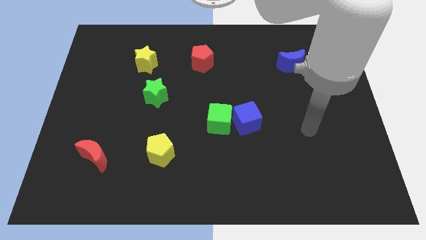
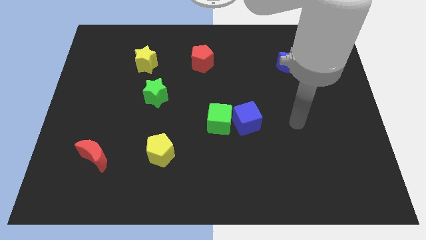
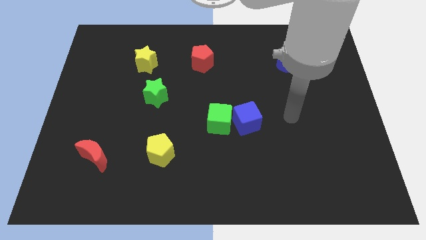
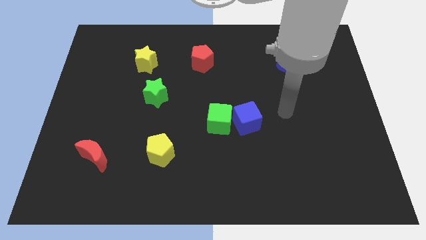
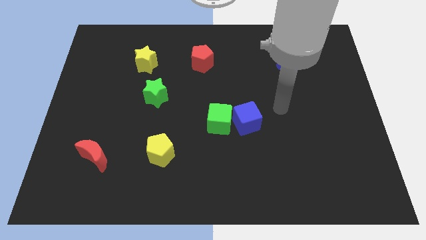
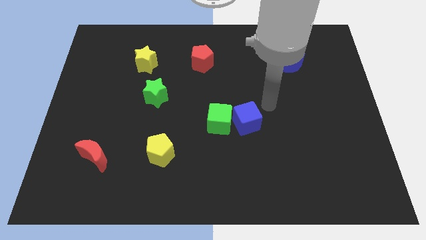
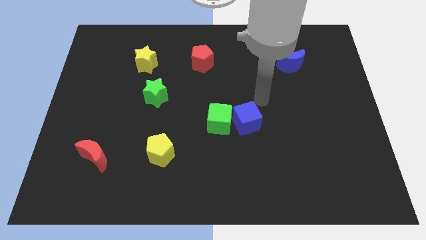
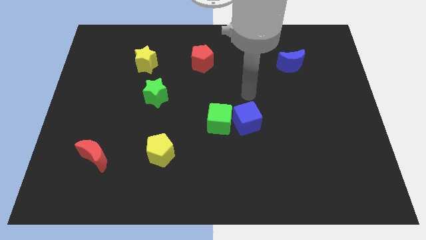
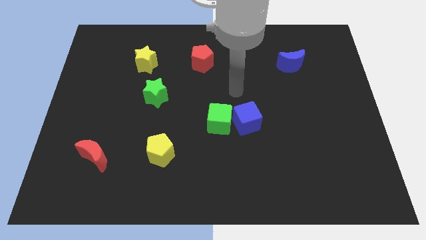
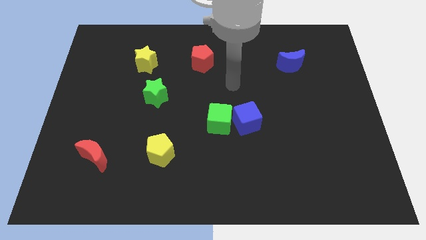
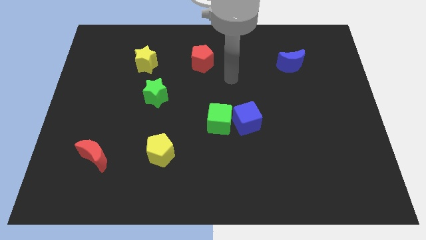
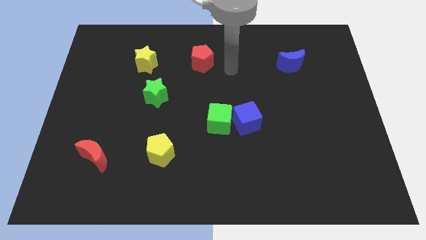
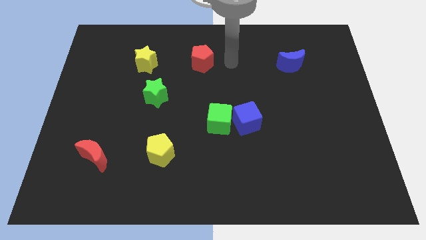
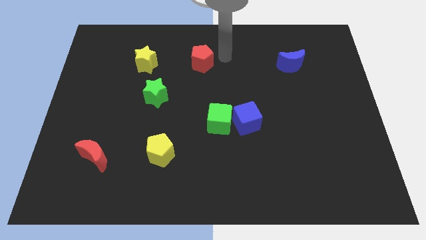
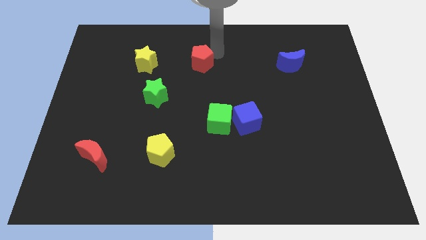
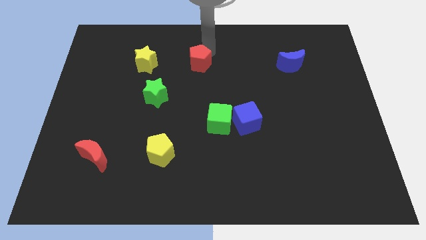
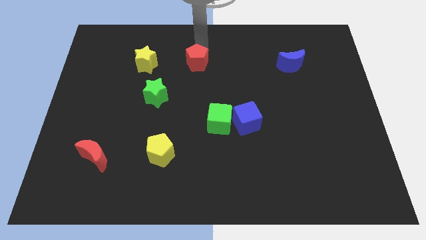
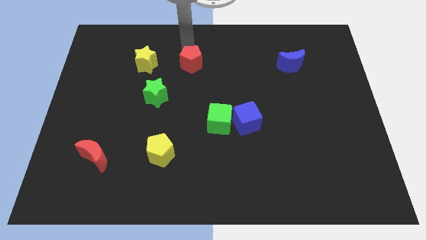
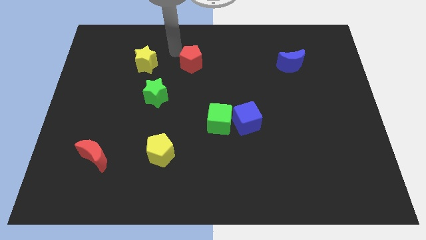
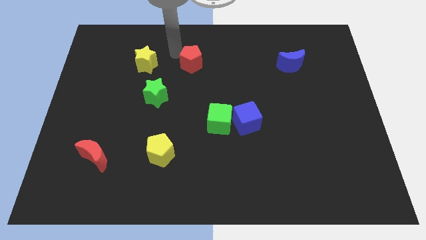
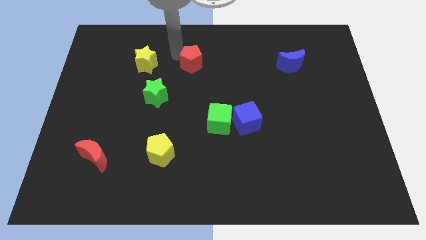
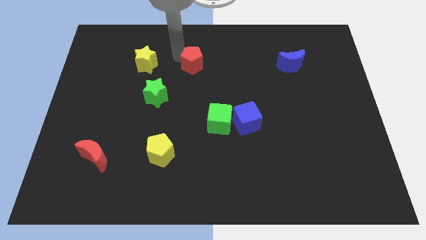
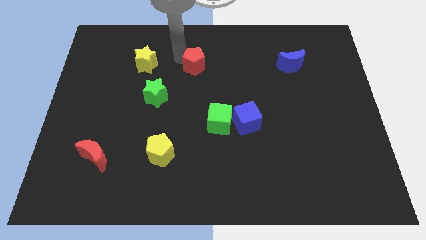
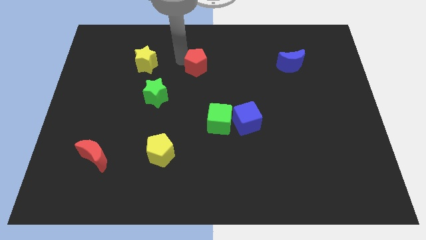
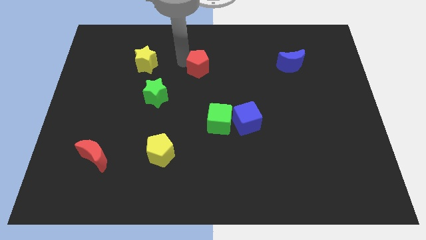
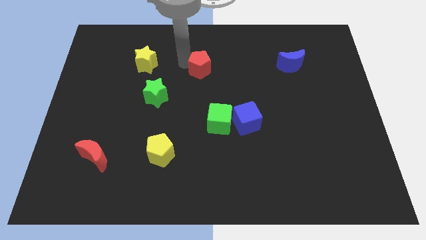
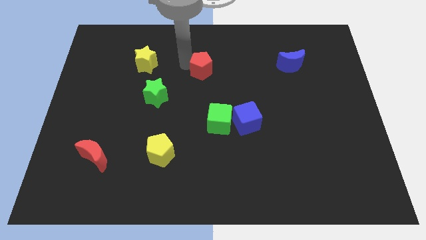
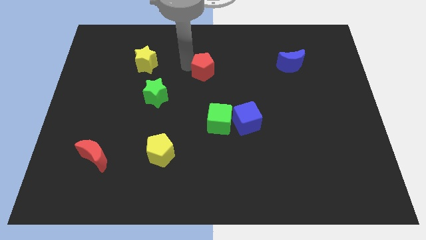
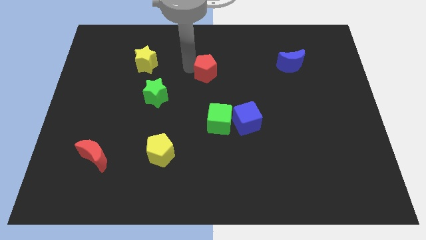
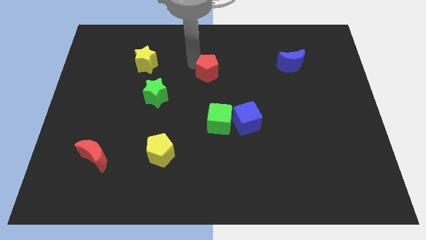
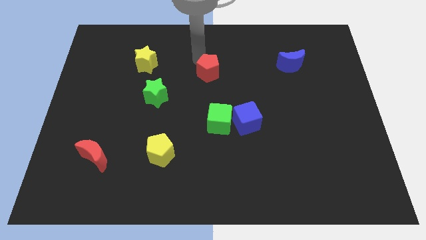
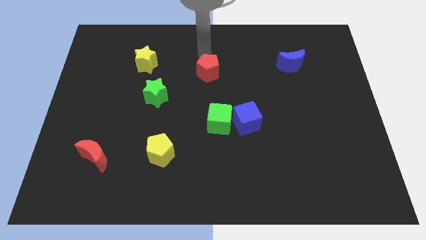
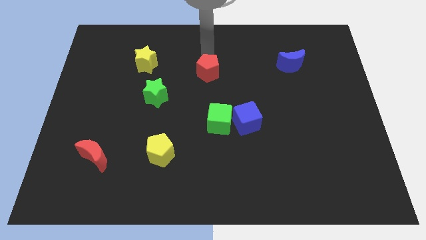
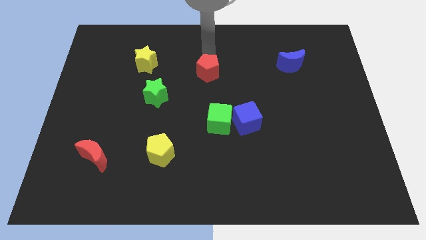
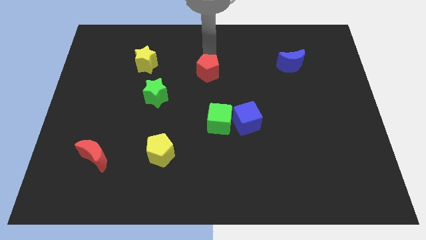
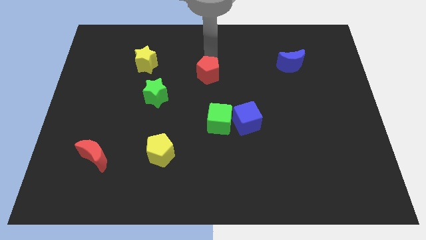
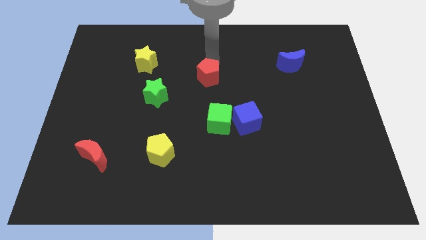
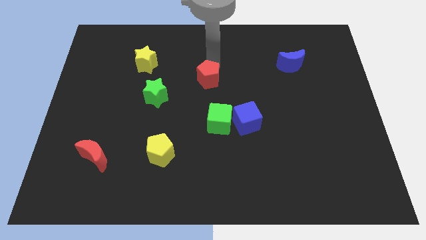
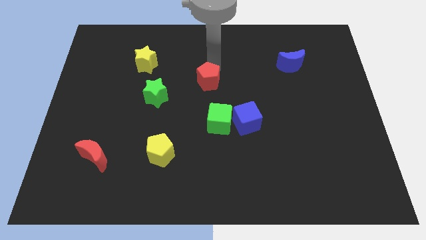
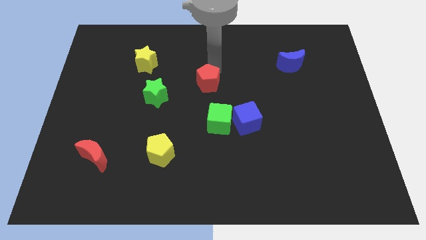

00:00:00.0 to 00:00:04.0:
push the red pentagon downwards somewhat

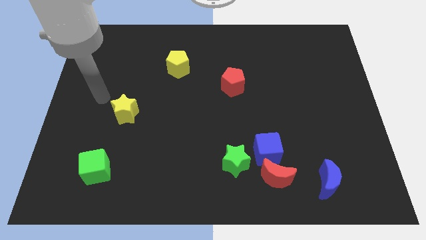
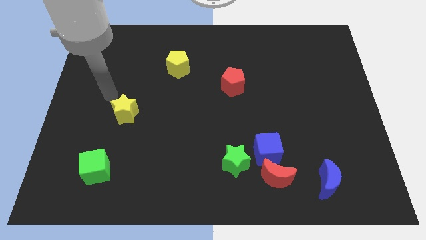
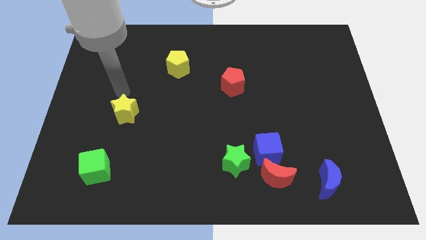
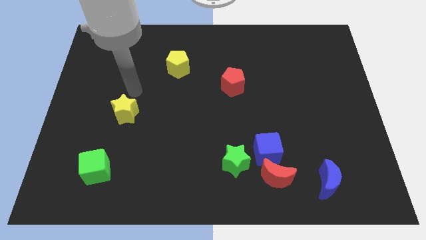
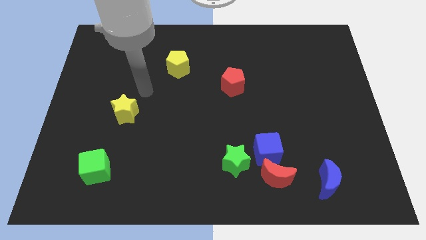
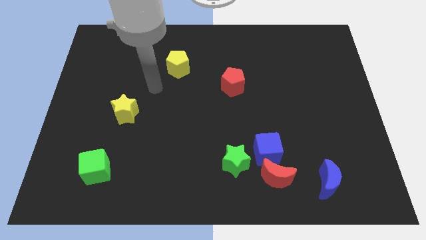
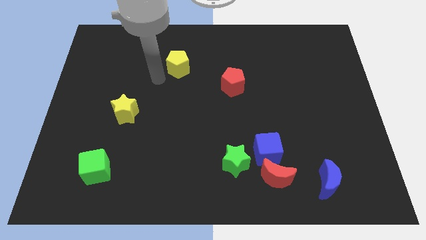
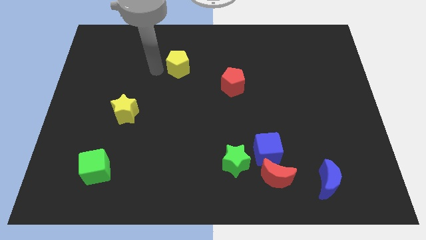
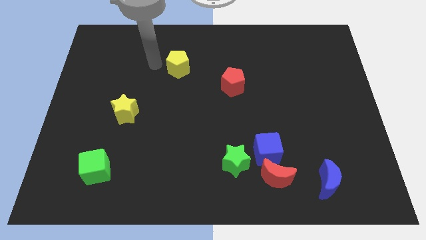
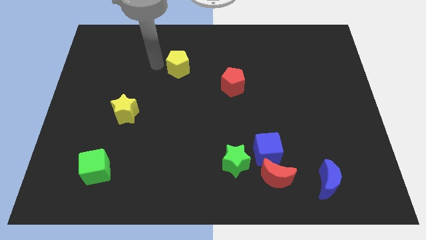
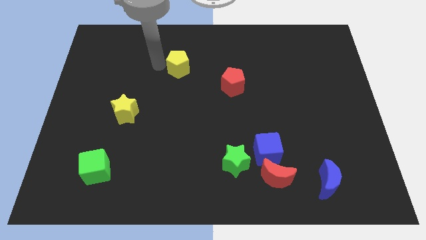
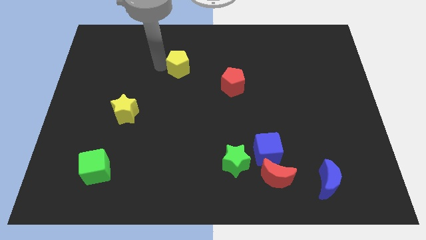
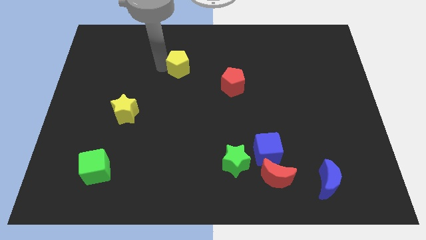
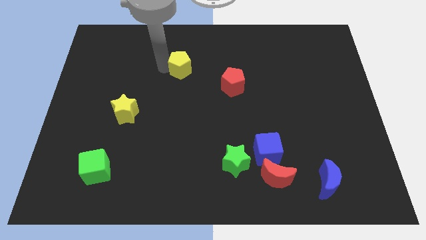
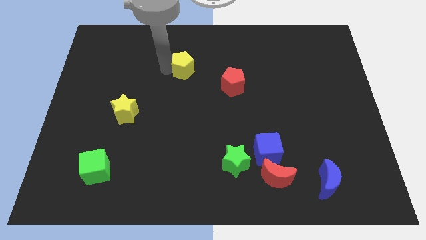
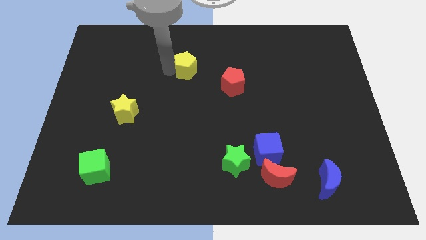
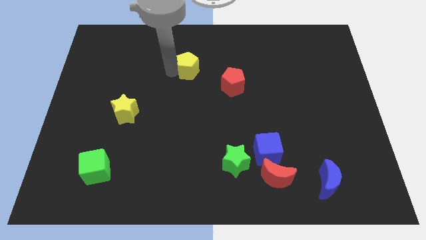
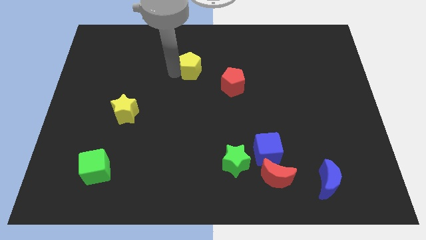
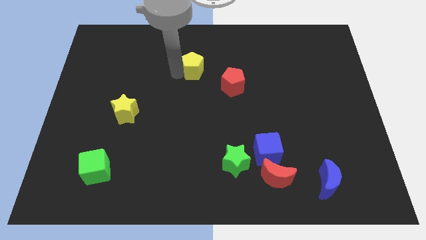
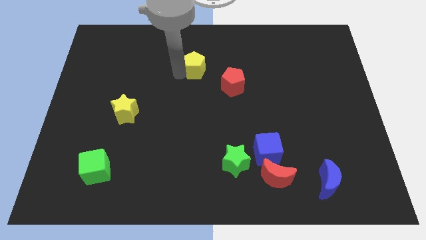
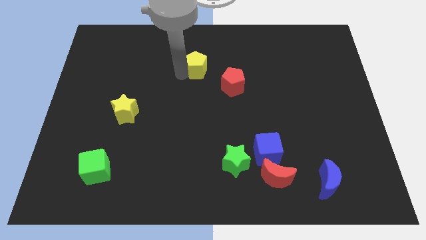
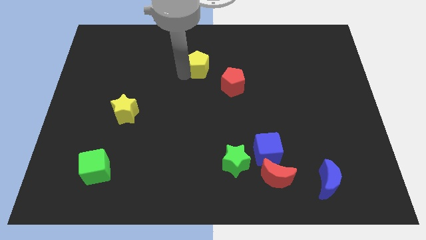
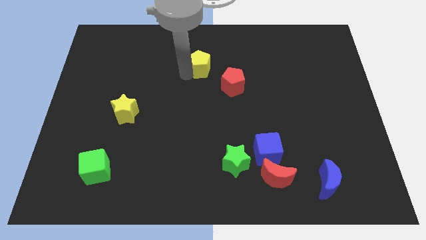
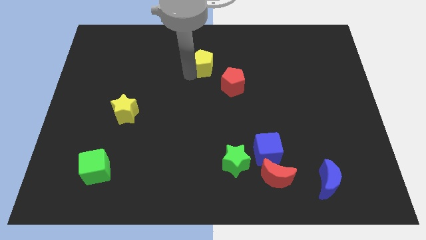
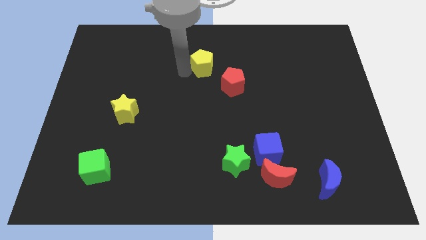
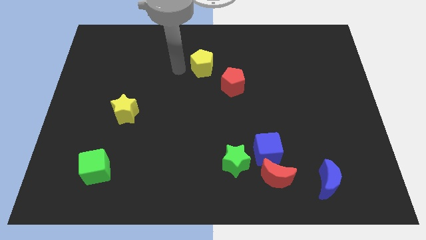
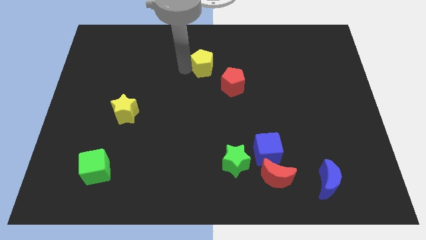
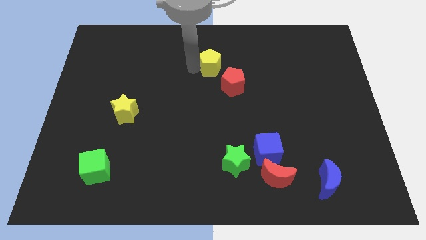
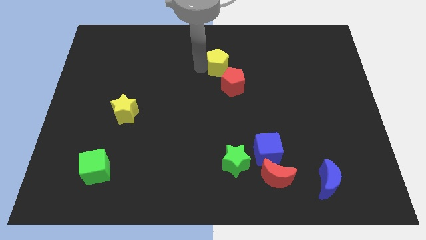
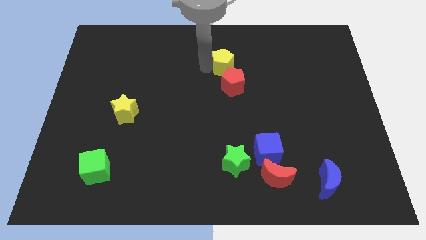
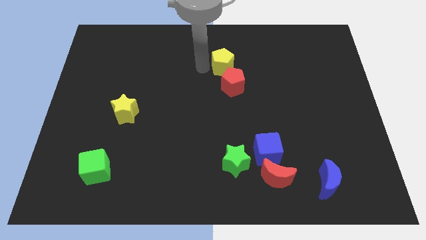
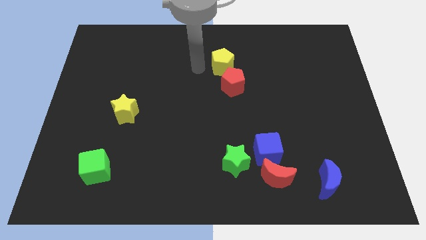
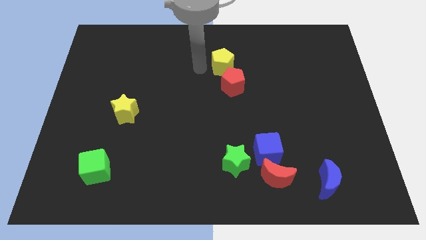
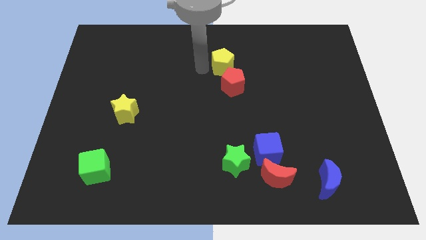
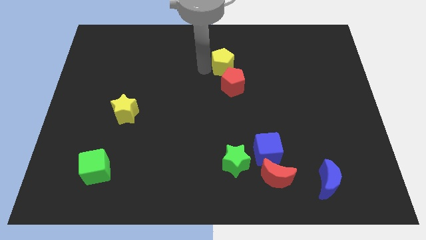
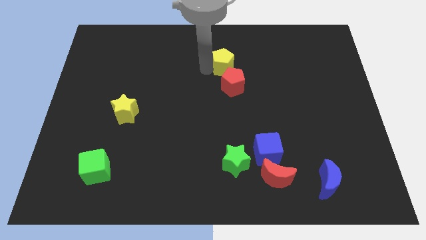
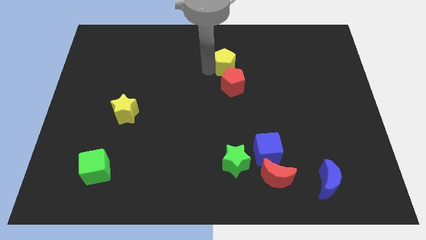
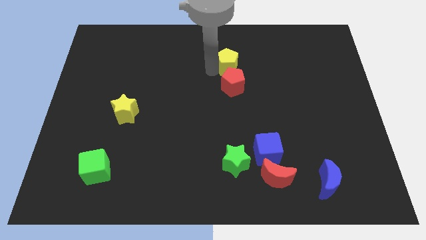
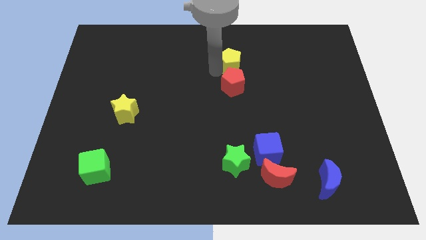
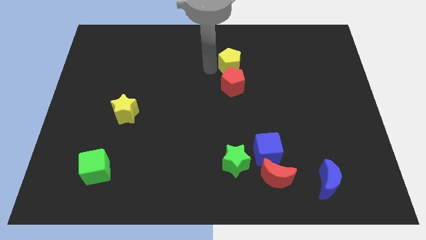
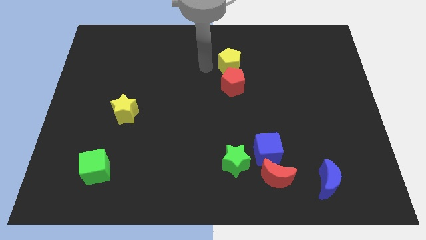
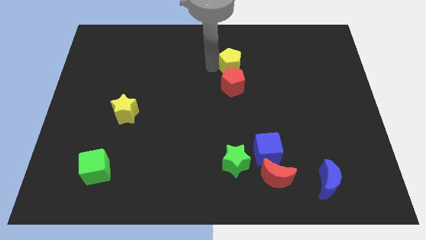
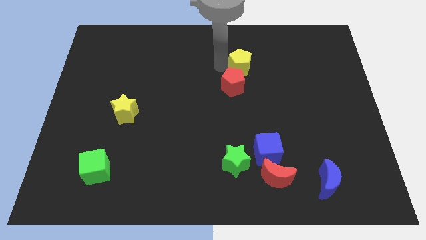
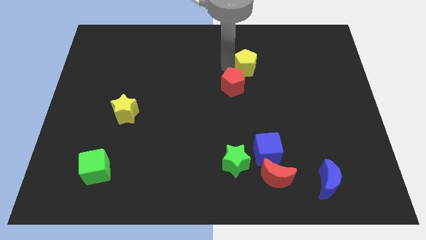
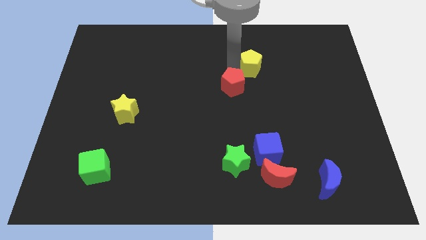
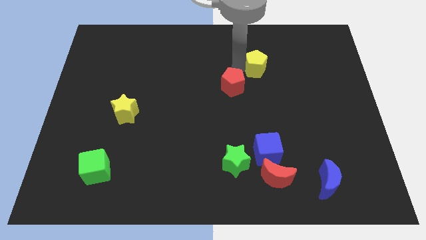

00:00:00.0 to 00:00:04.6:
move the yellow pentagon right
